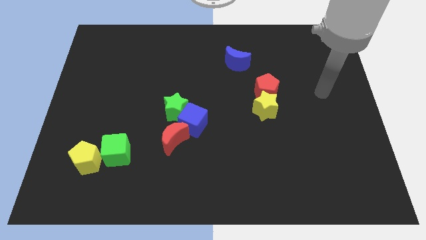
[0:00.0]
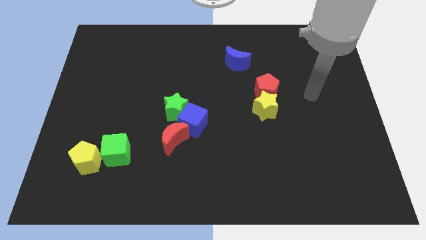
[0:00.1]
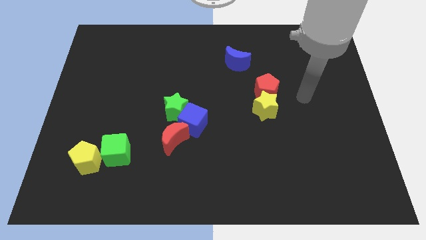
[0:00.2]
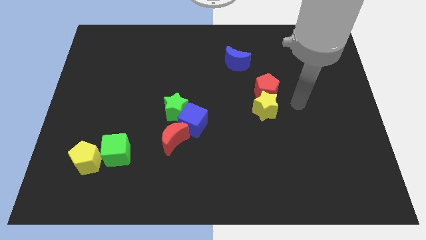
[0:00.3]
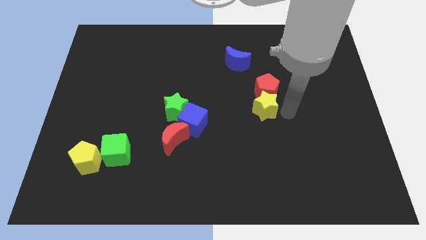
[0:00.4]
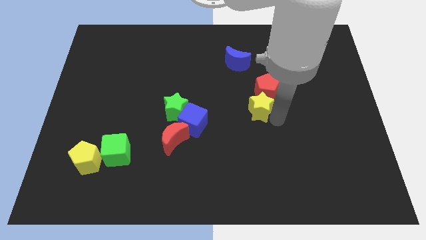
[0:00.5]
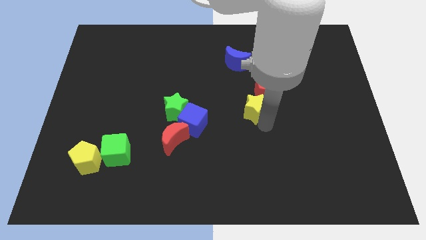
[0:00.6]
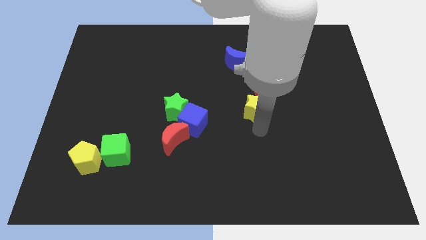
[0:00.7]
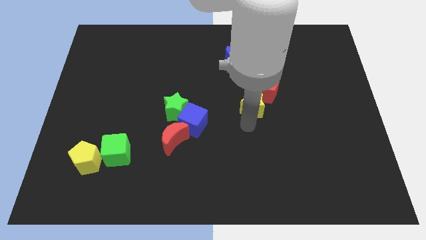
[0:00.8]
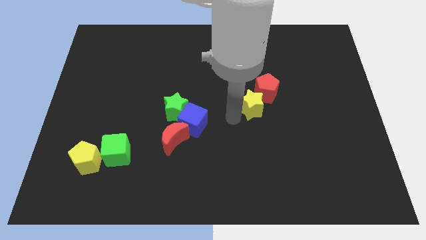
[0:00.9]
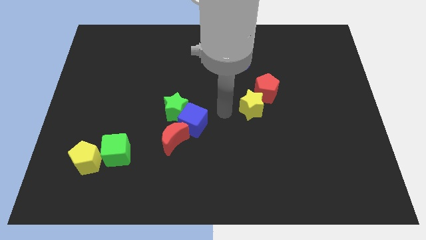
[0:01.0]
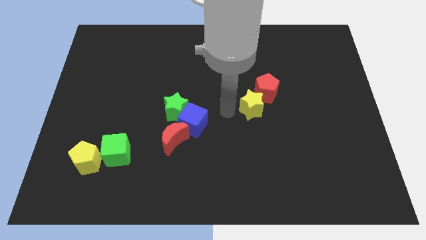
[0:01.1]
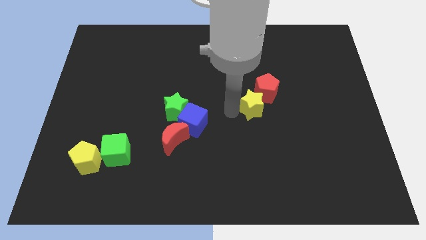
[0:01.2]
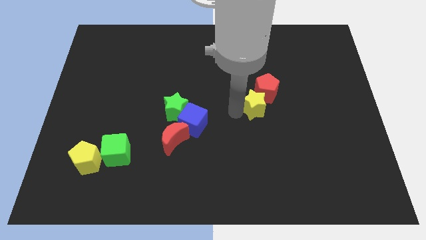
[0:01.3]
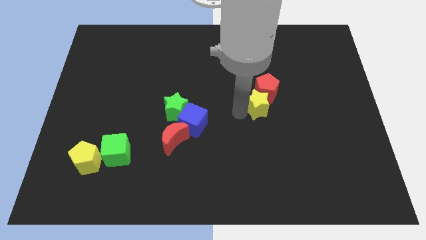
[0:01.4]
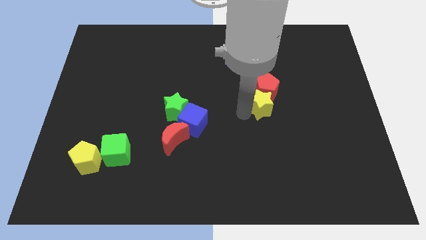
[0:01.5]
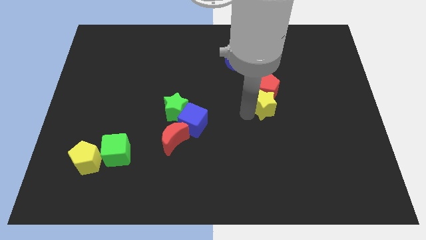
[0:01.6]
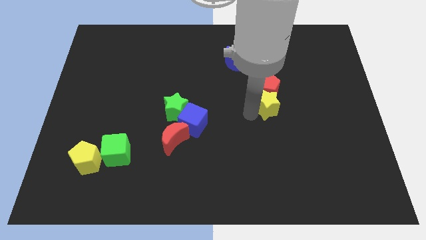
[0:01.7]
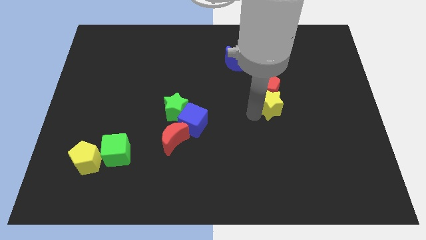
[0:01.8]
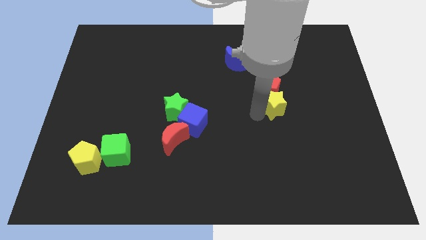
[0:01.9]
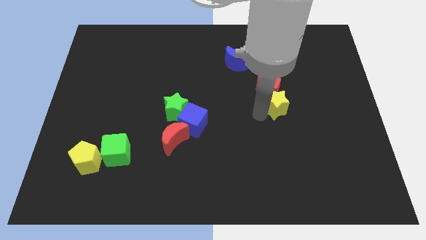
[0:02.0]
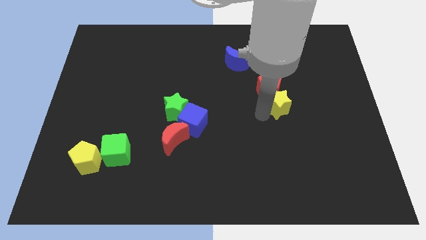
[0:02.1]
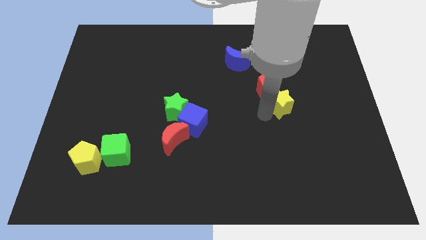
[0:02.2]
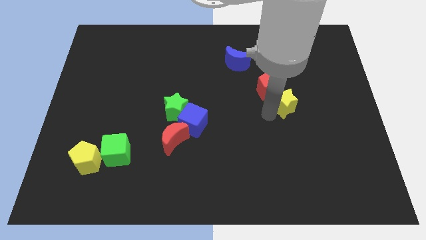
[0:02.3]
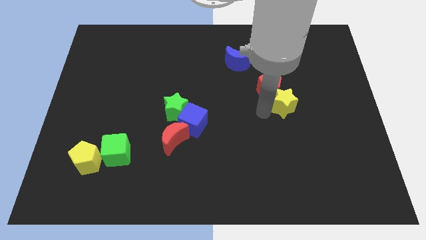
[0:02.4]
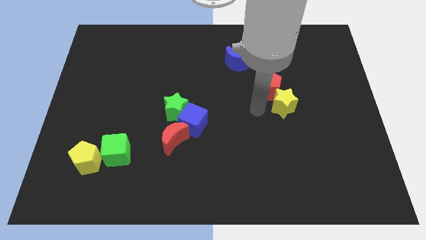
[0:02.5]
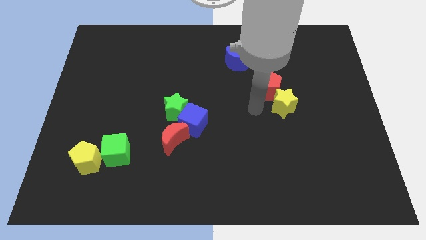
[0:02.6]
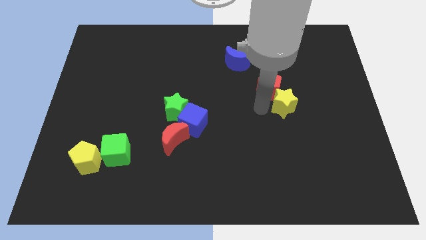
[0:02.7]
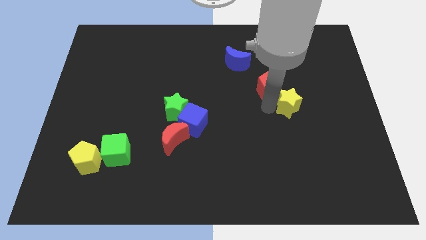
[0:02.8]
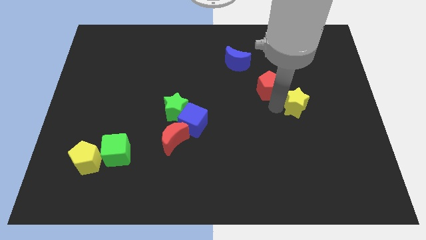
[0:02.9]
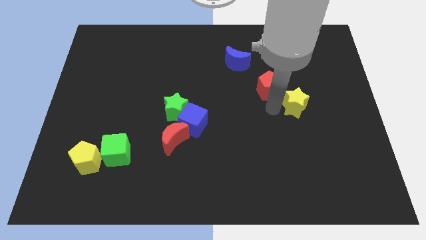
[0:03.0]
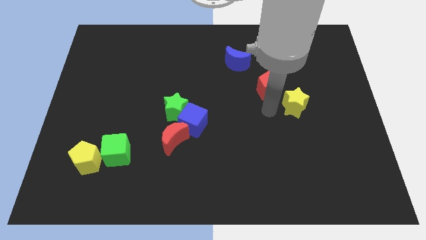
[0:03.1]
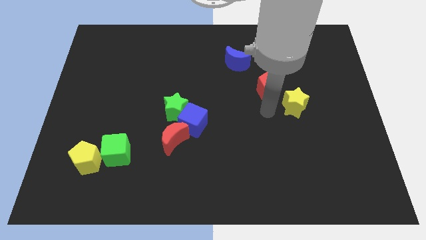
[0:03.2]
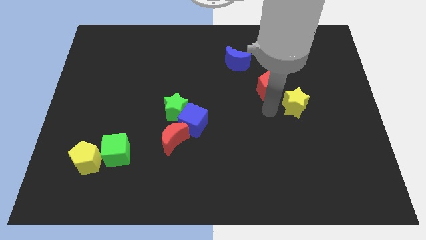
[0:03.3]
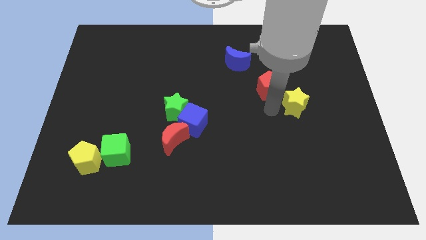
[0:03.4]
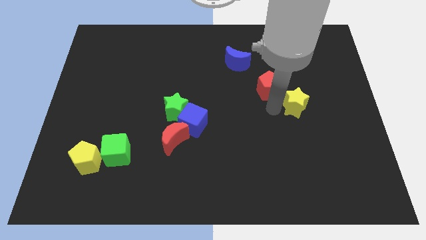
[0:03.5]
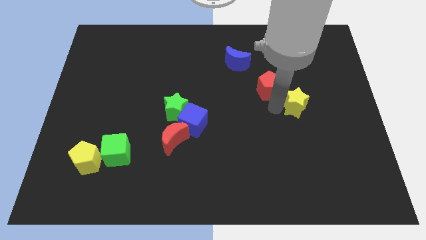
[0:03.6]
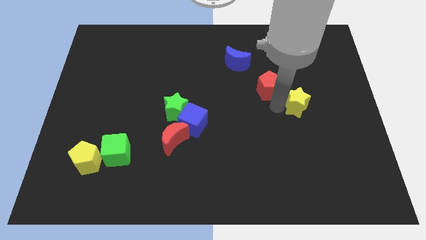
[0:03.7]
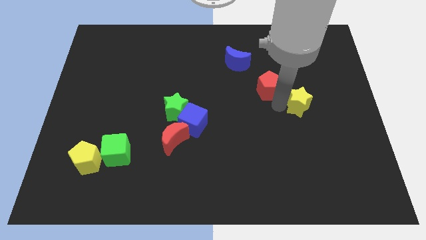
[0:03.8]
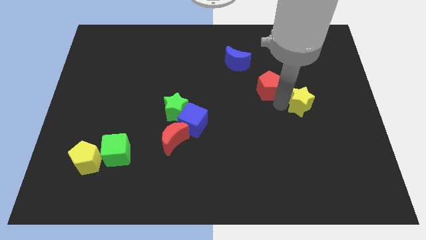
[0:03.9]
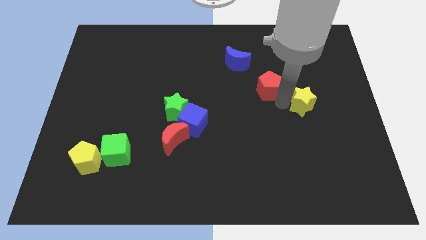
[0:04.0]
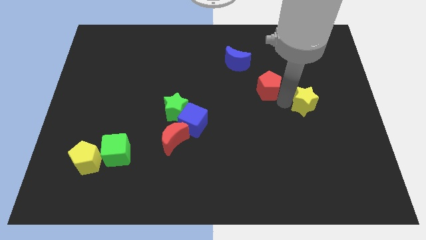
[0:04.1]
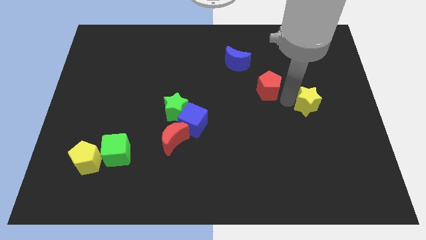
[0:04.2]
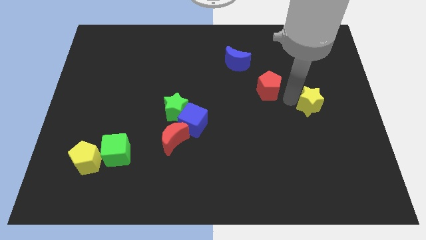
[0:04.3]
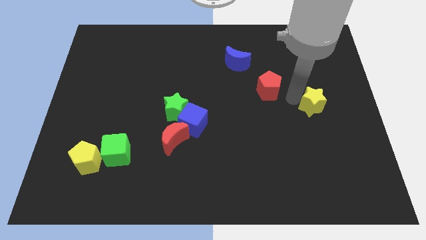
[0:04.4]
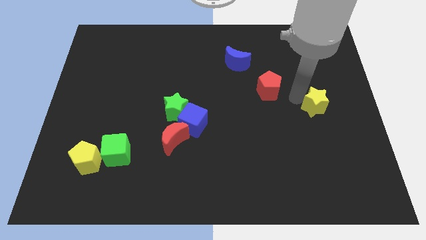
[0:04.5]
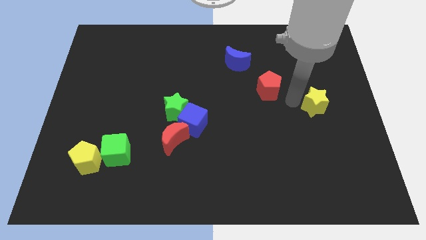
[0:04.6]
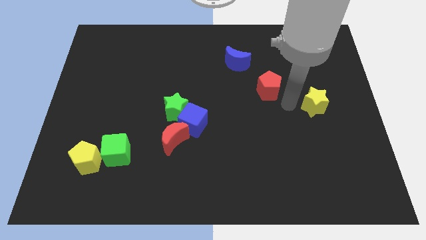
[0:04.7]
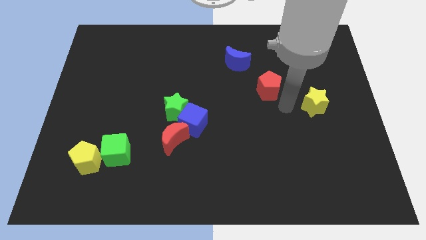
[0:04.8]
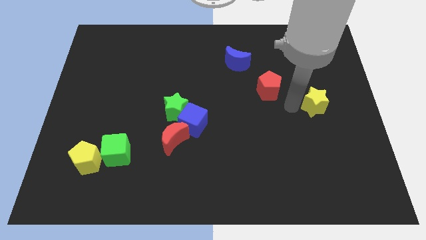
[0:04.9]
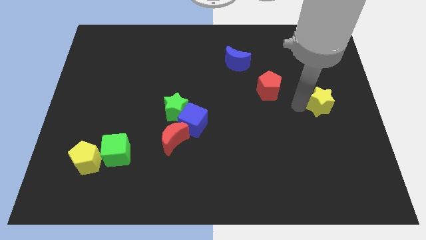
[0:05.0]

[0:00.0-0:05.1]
move the yellow star to the right side of the board

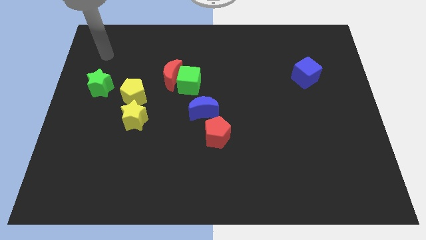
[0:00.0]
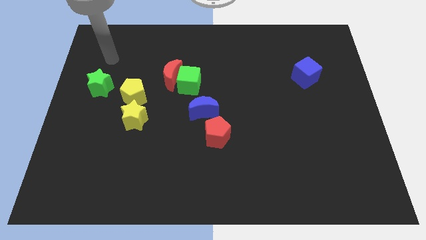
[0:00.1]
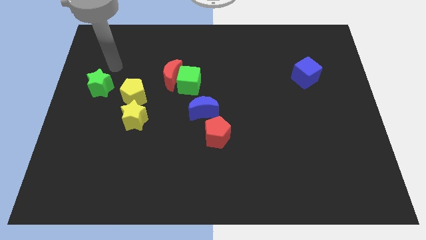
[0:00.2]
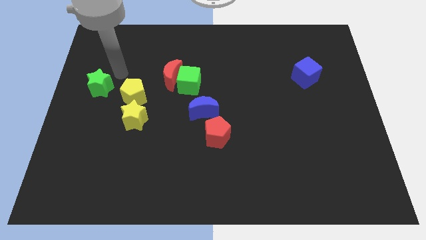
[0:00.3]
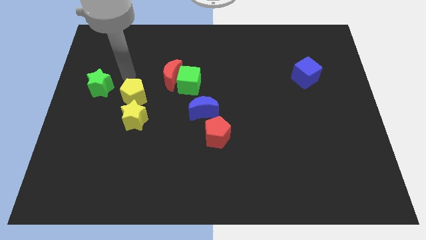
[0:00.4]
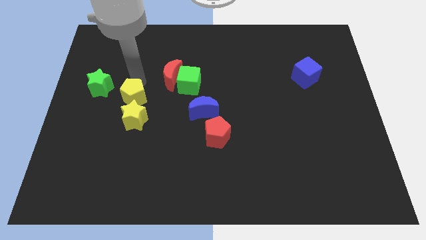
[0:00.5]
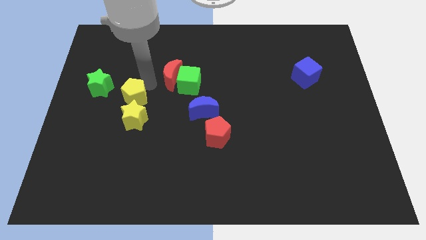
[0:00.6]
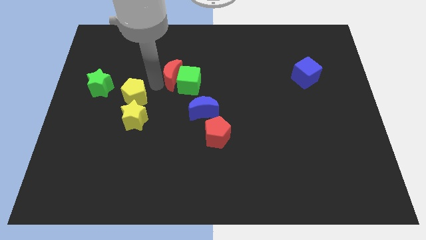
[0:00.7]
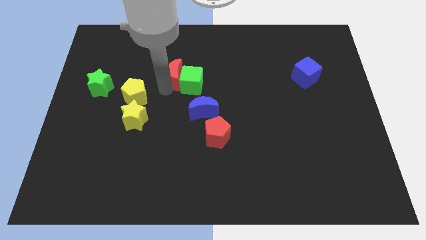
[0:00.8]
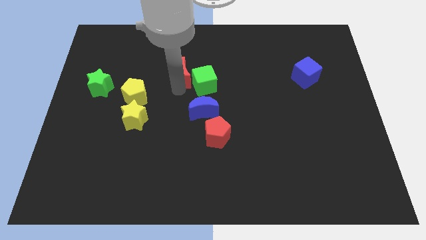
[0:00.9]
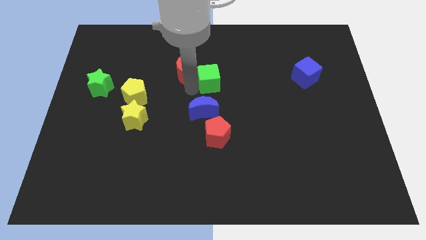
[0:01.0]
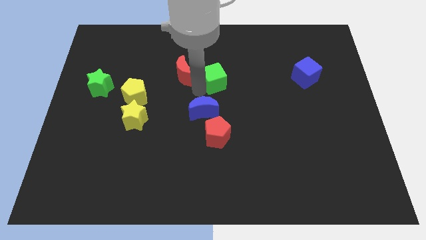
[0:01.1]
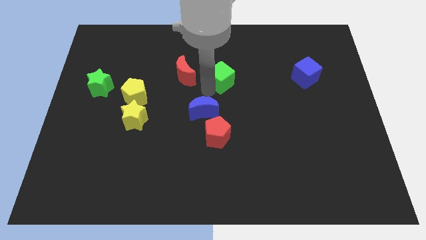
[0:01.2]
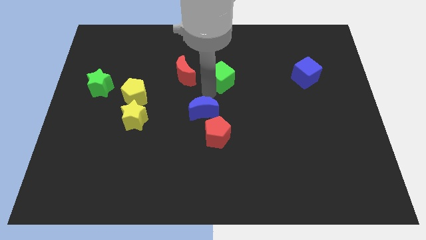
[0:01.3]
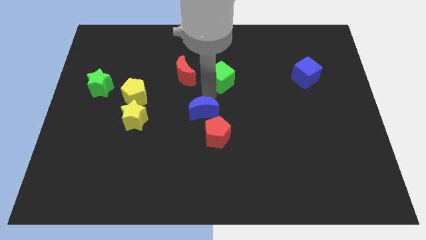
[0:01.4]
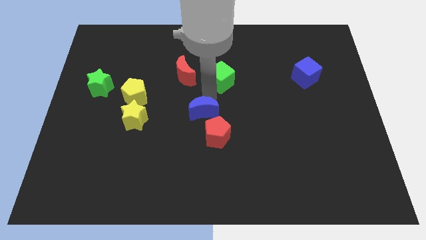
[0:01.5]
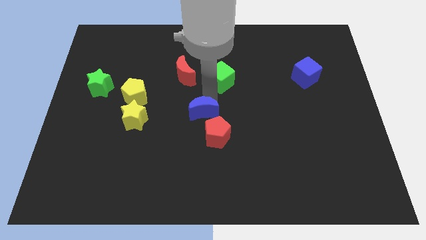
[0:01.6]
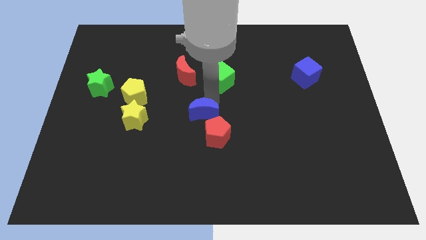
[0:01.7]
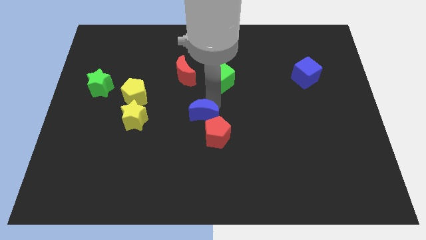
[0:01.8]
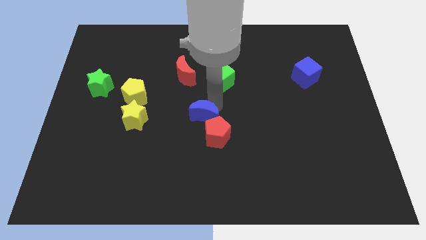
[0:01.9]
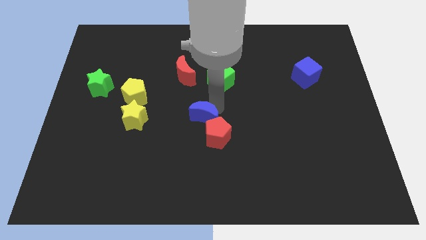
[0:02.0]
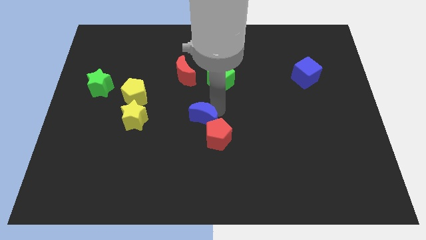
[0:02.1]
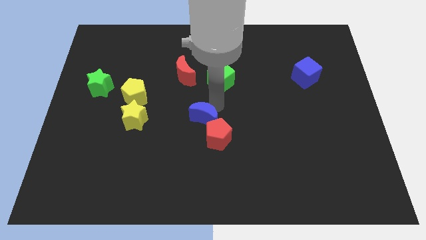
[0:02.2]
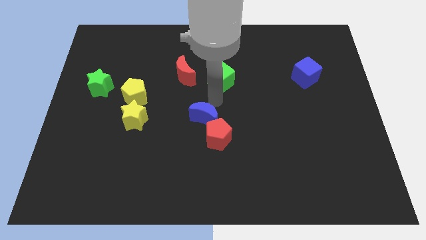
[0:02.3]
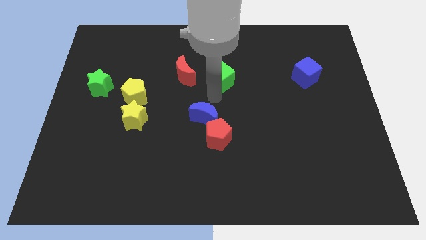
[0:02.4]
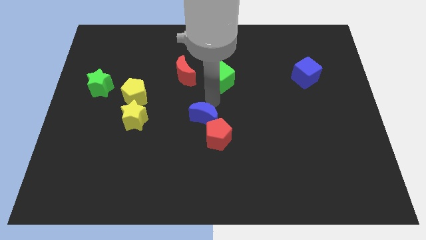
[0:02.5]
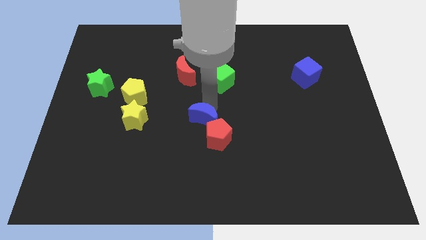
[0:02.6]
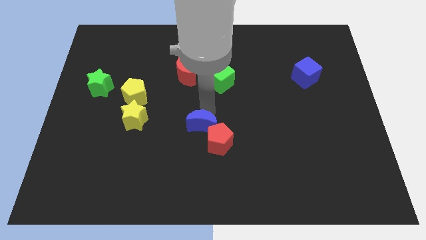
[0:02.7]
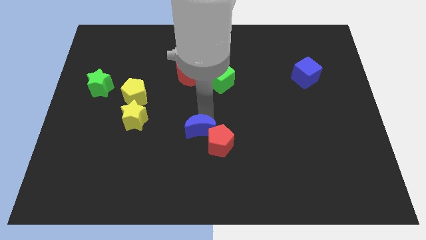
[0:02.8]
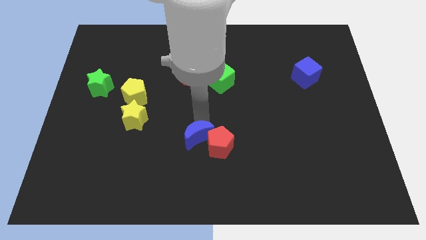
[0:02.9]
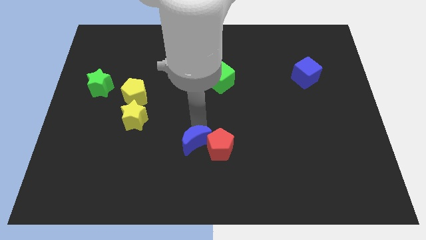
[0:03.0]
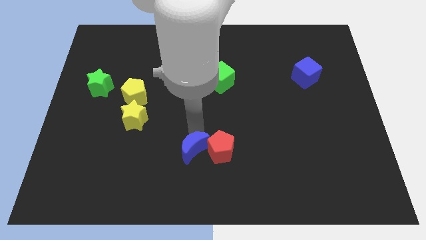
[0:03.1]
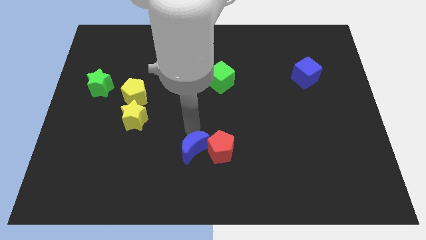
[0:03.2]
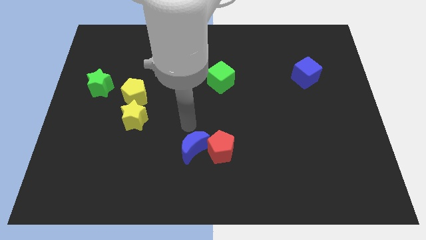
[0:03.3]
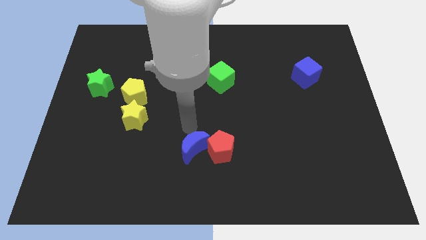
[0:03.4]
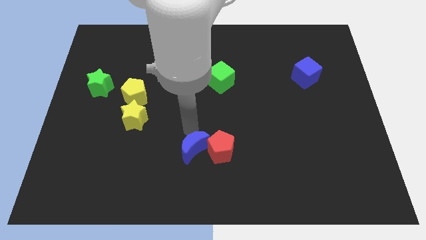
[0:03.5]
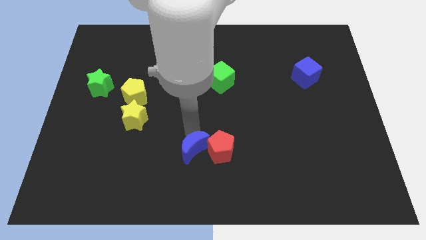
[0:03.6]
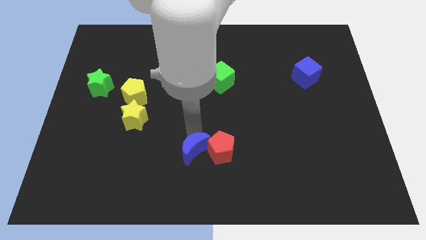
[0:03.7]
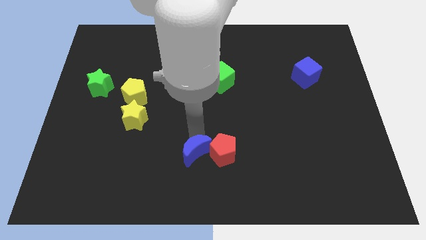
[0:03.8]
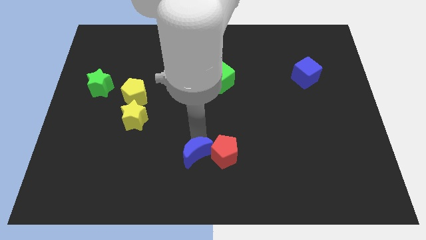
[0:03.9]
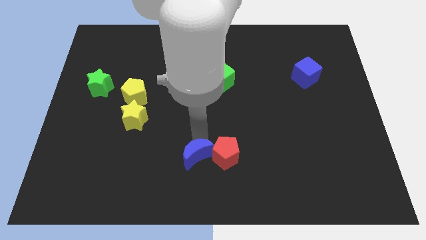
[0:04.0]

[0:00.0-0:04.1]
slide the blue moon to the bottom side
